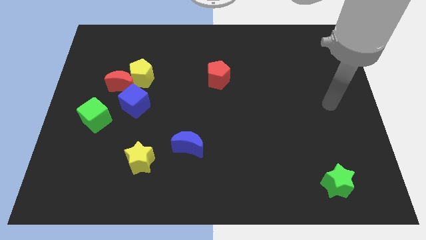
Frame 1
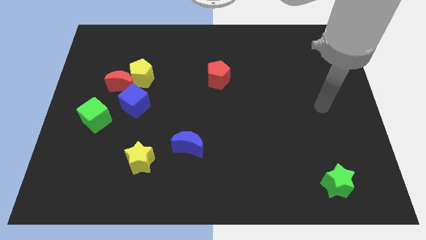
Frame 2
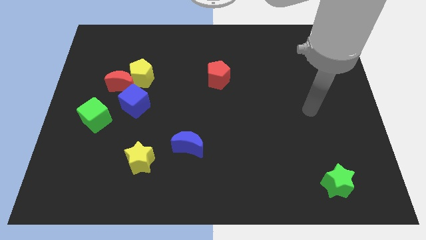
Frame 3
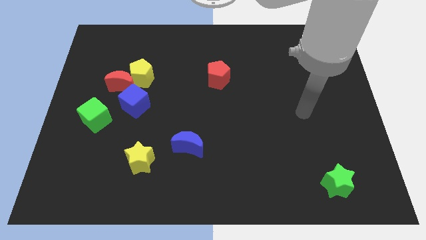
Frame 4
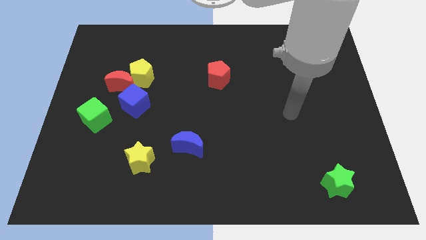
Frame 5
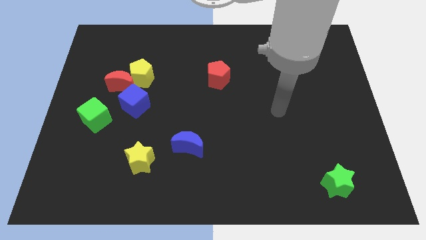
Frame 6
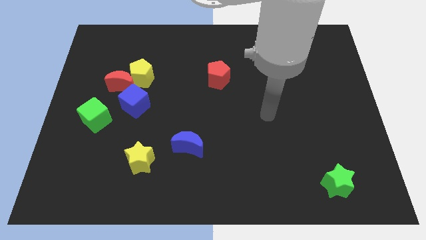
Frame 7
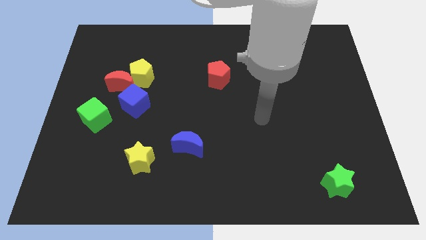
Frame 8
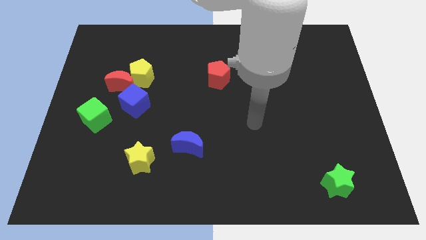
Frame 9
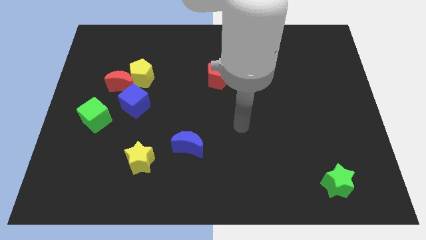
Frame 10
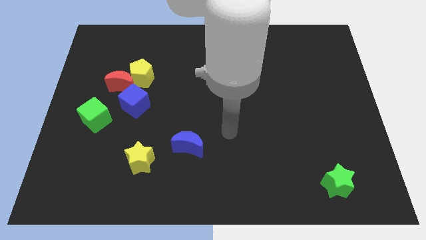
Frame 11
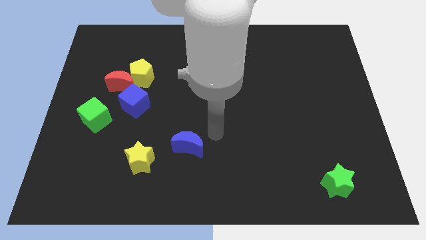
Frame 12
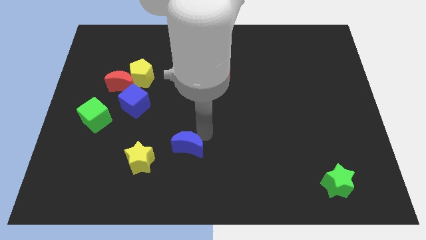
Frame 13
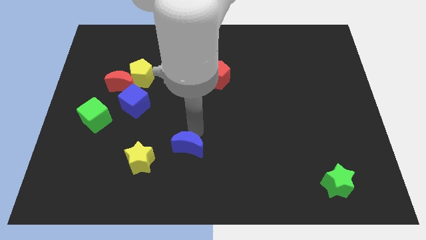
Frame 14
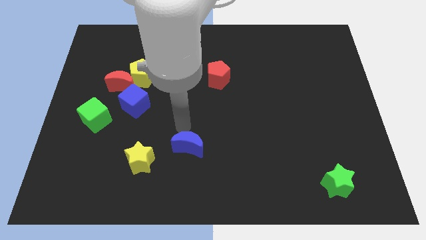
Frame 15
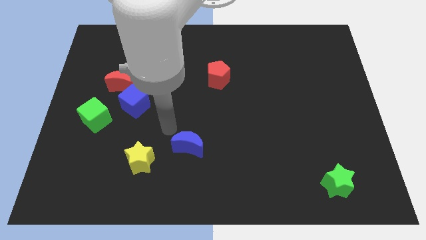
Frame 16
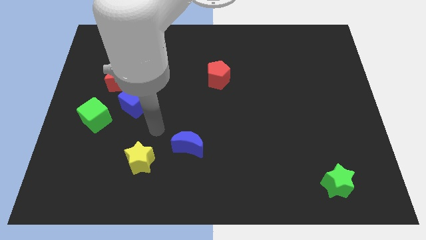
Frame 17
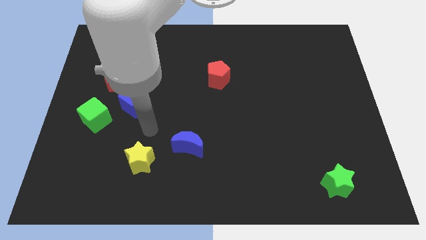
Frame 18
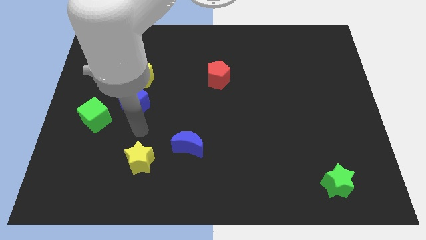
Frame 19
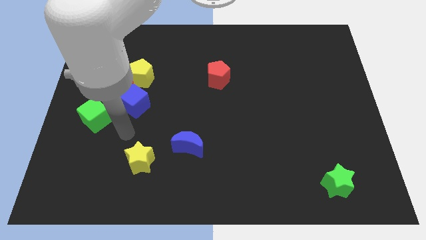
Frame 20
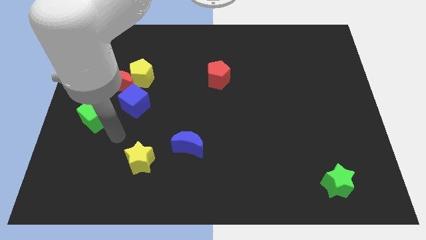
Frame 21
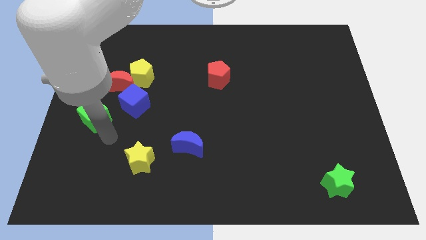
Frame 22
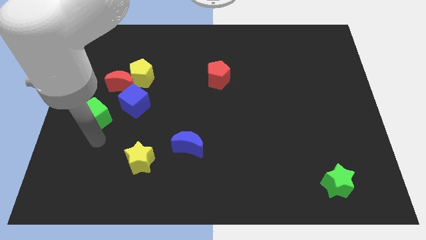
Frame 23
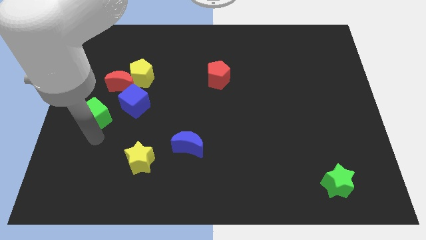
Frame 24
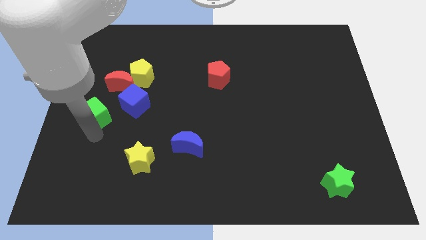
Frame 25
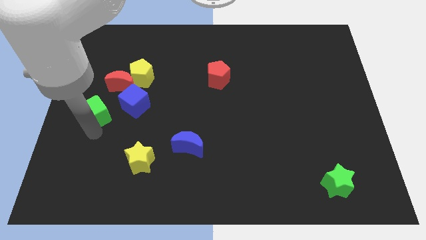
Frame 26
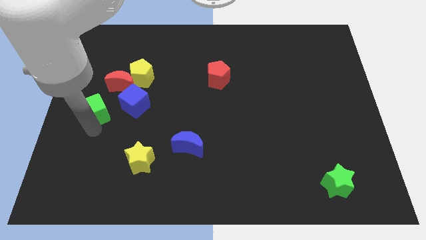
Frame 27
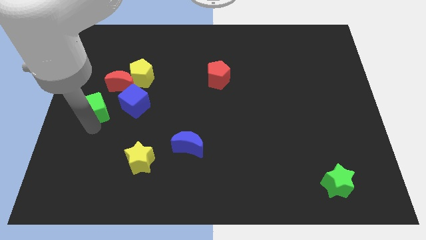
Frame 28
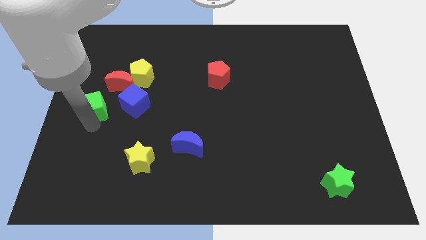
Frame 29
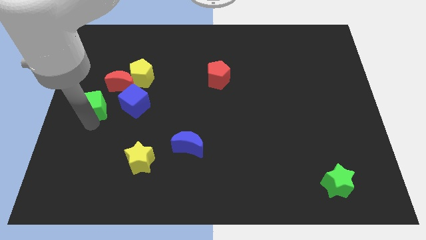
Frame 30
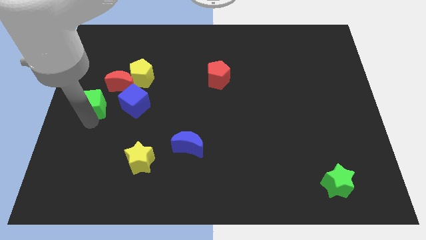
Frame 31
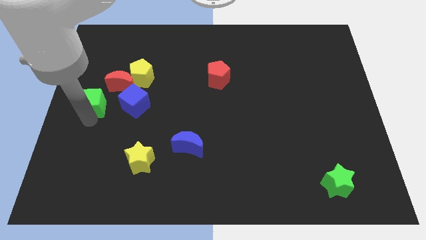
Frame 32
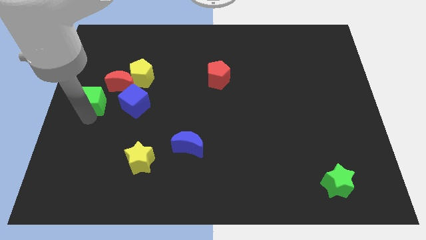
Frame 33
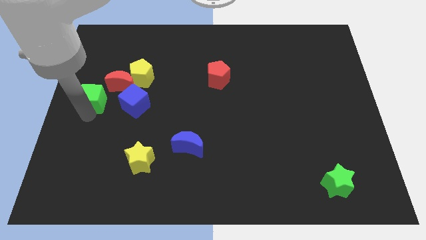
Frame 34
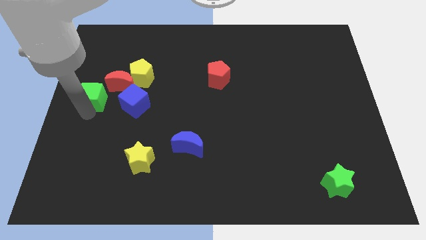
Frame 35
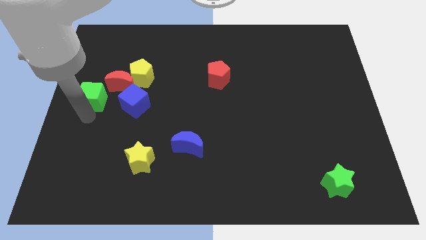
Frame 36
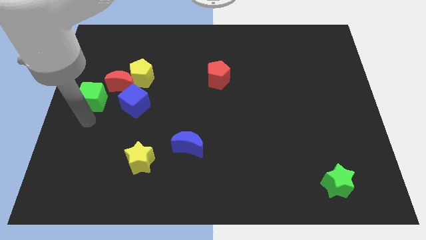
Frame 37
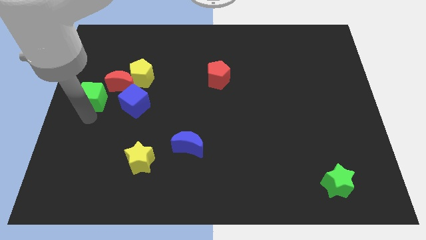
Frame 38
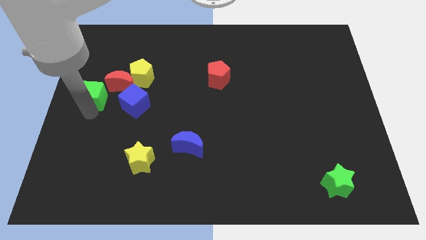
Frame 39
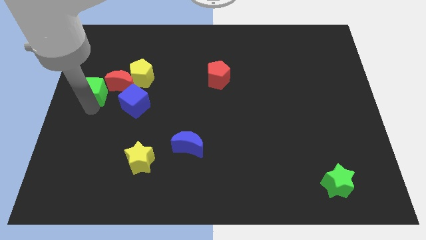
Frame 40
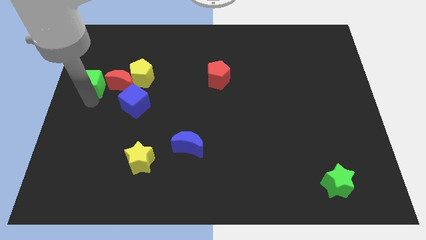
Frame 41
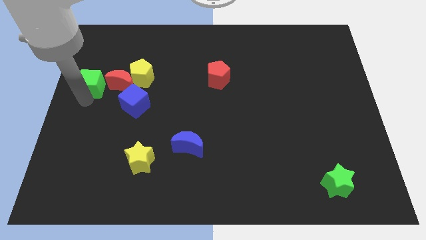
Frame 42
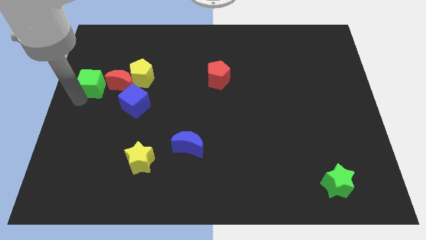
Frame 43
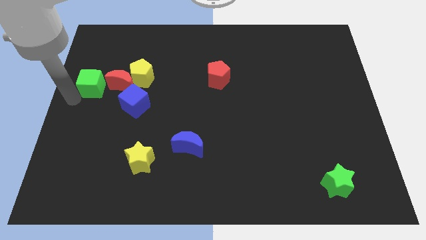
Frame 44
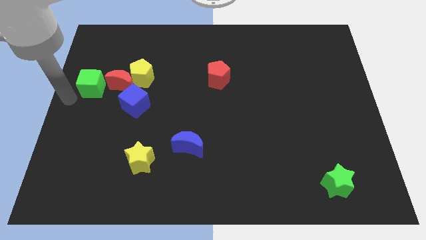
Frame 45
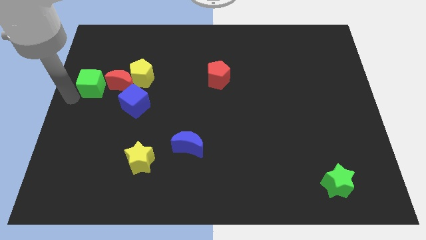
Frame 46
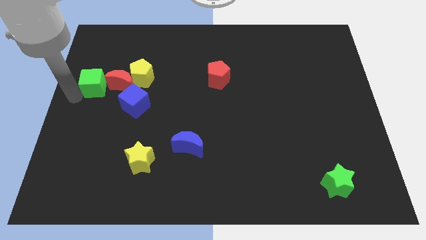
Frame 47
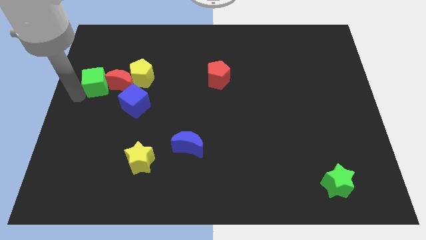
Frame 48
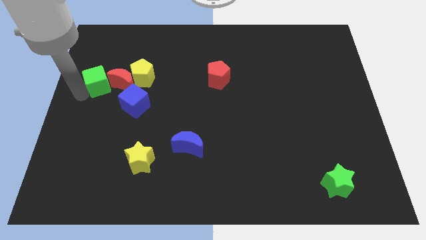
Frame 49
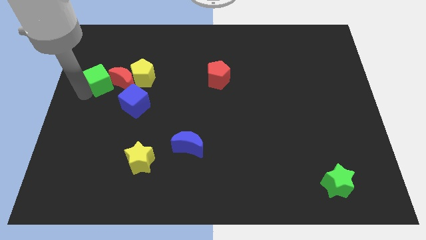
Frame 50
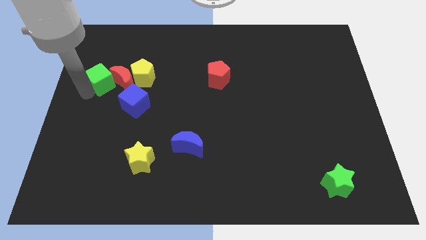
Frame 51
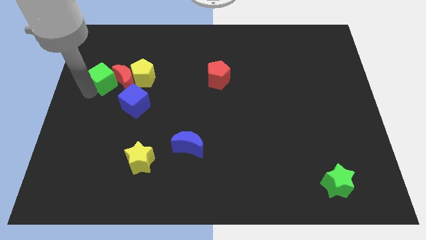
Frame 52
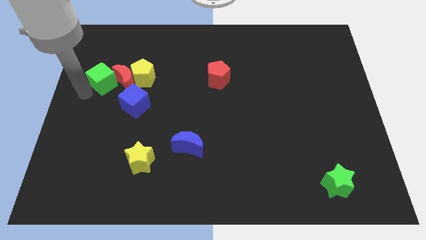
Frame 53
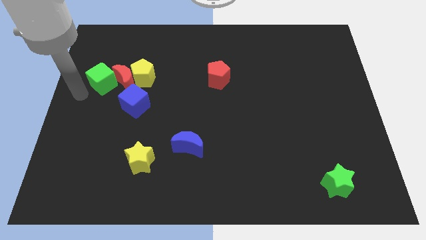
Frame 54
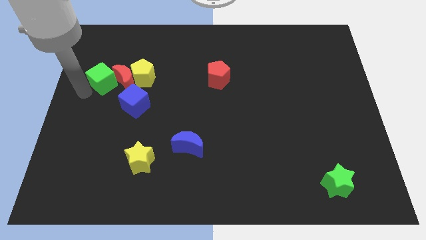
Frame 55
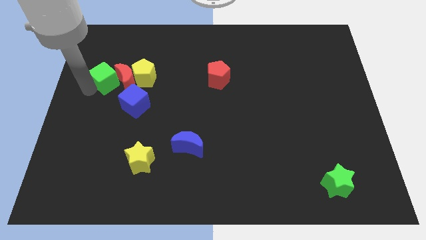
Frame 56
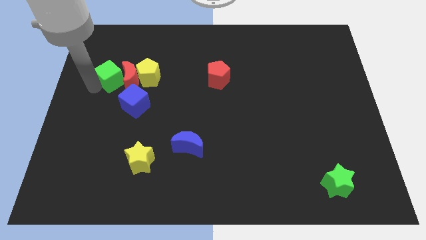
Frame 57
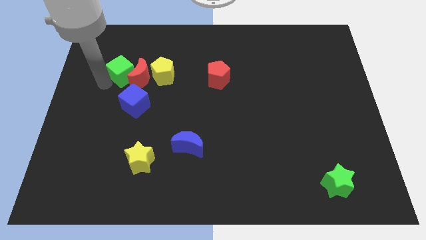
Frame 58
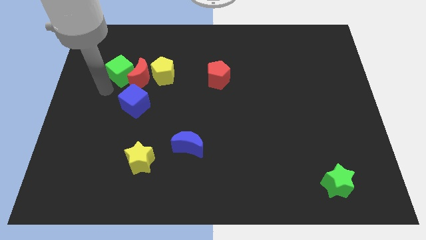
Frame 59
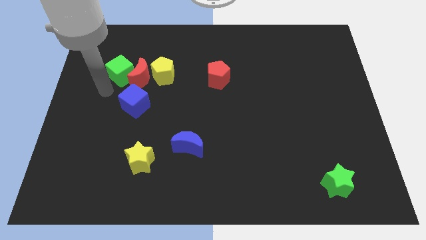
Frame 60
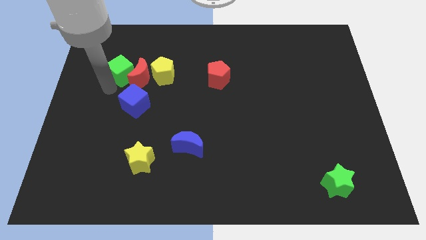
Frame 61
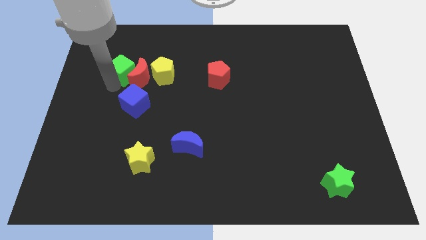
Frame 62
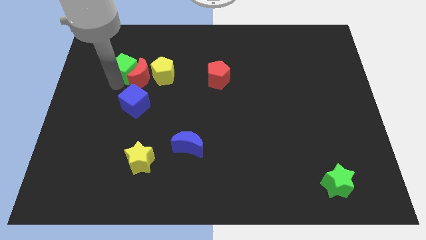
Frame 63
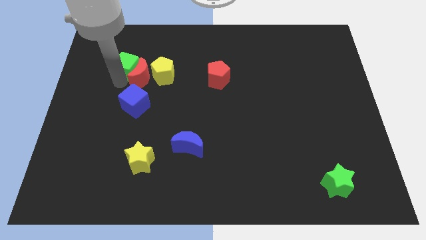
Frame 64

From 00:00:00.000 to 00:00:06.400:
slide the green cube to the top of the red moon

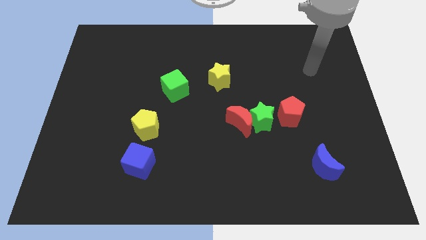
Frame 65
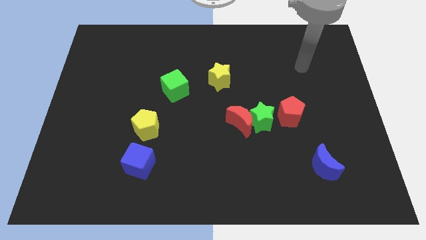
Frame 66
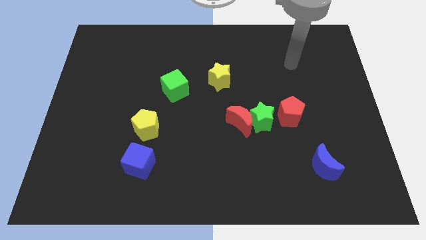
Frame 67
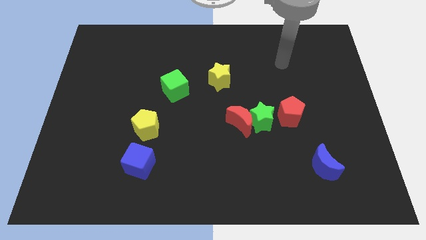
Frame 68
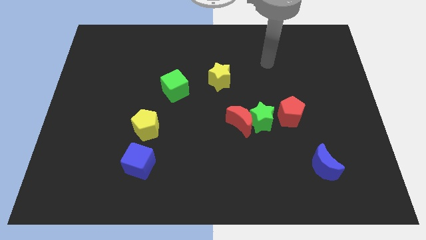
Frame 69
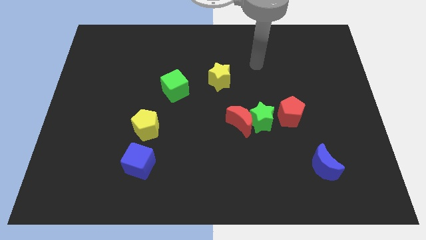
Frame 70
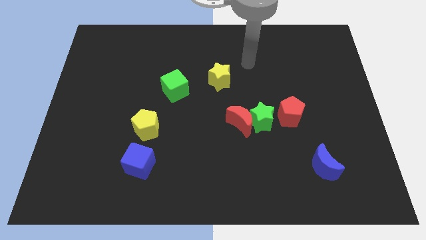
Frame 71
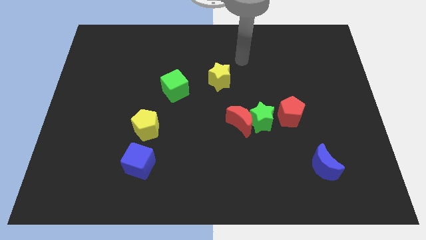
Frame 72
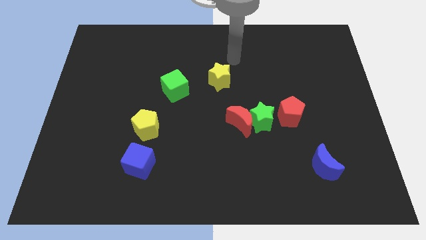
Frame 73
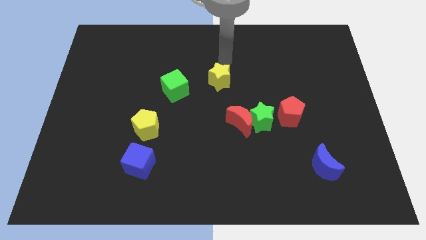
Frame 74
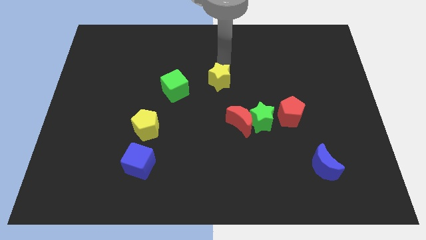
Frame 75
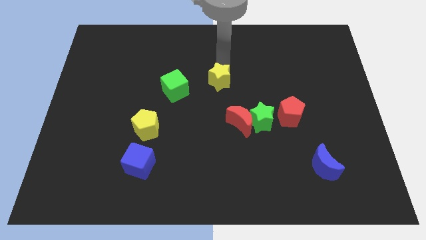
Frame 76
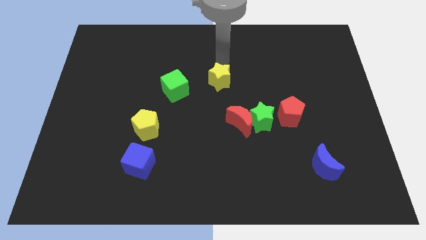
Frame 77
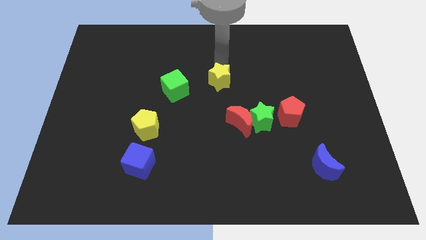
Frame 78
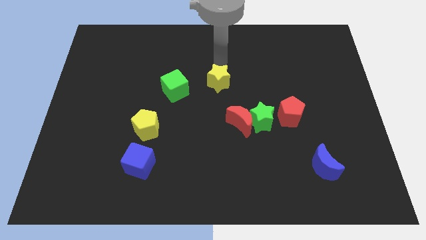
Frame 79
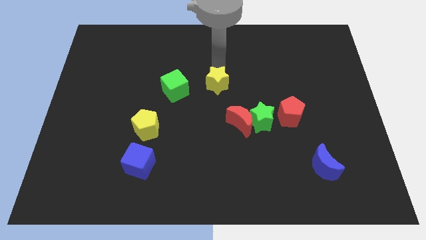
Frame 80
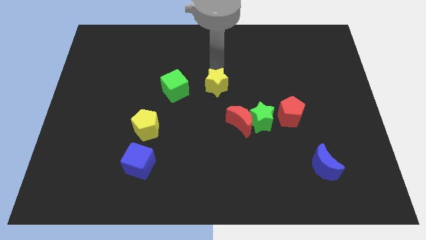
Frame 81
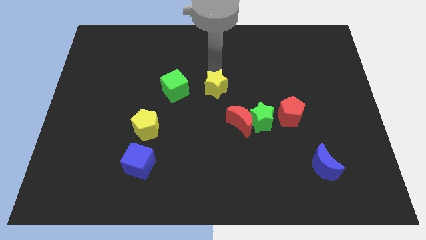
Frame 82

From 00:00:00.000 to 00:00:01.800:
push the yellow star to the top left of the red moon
